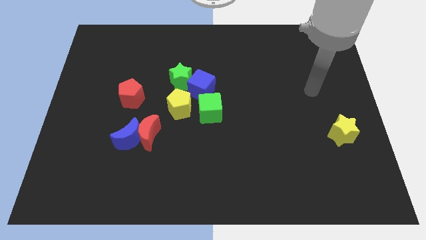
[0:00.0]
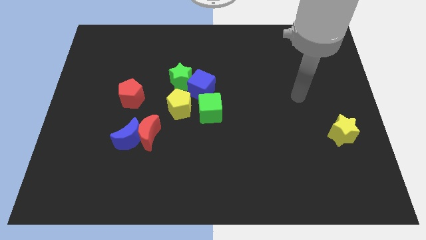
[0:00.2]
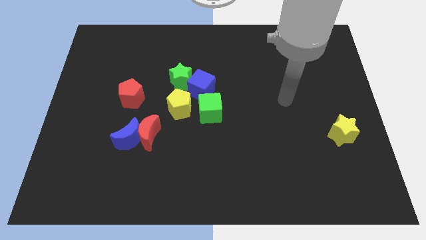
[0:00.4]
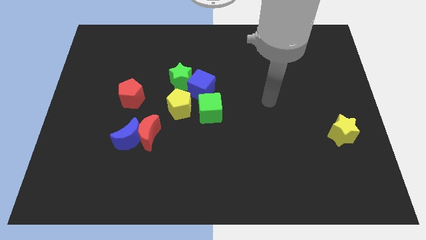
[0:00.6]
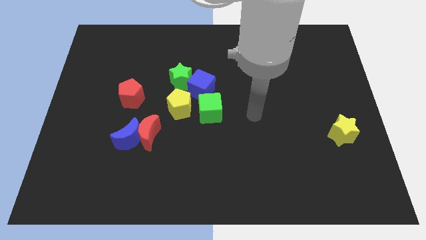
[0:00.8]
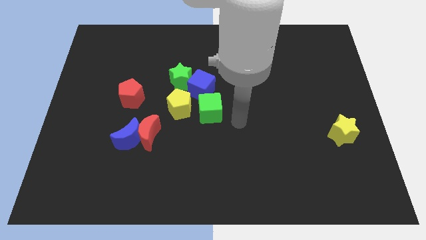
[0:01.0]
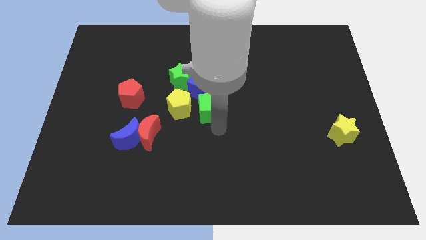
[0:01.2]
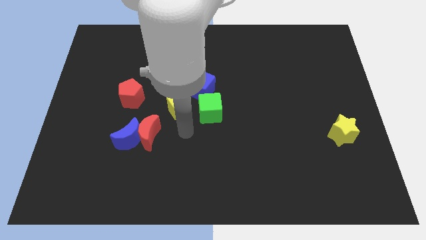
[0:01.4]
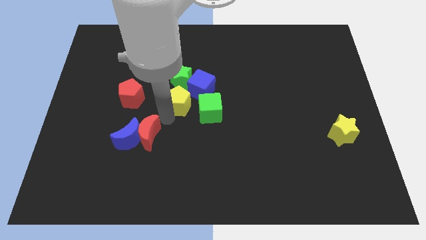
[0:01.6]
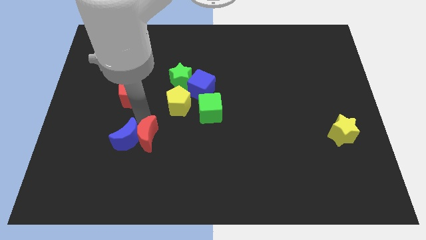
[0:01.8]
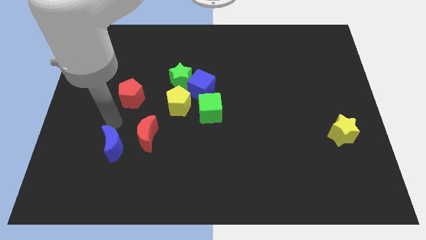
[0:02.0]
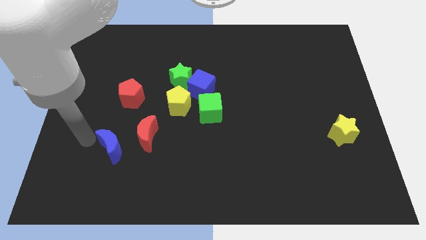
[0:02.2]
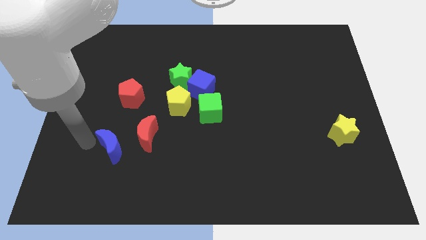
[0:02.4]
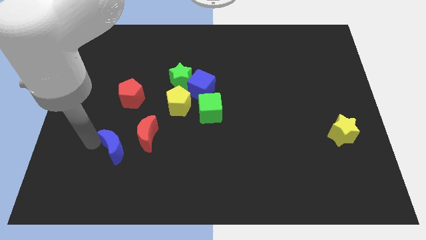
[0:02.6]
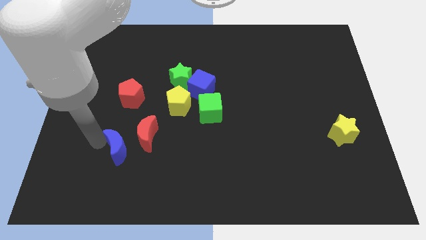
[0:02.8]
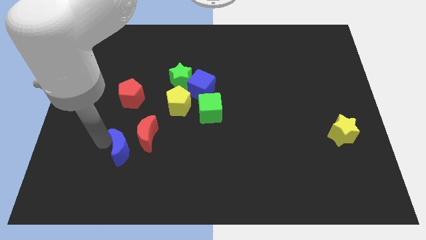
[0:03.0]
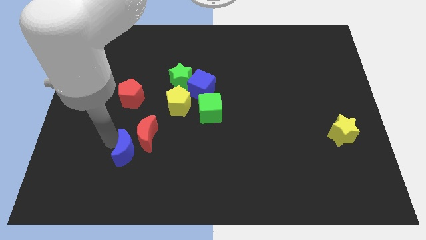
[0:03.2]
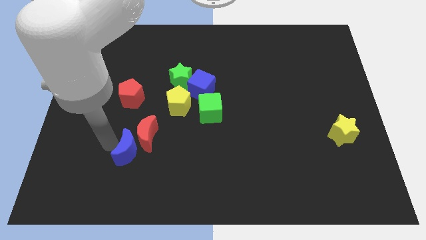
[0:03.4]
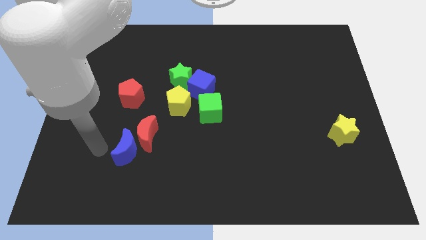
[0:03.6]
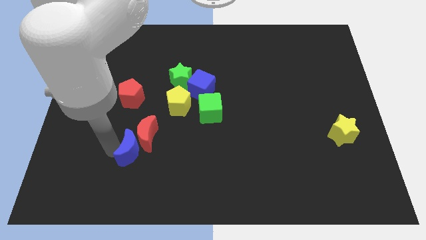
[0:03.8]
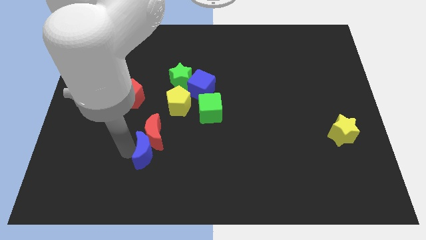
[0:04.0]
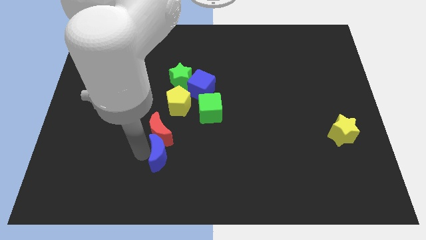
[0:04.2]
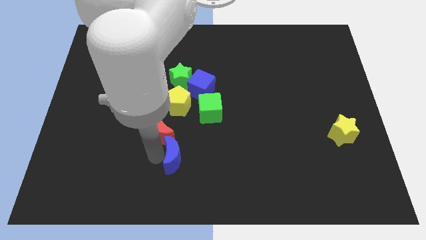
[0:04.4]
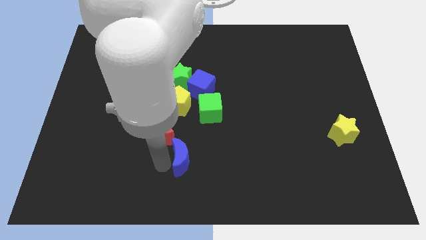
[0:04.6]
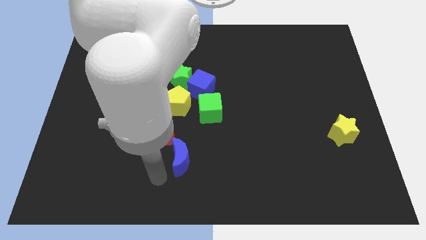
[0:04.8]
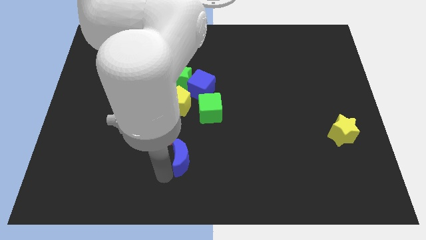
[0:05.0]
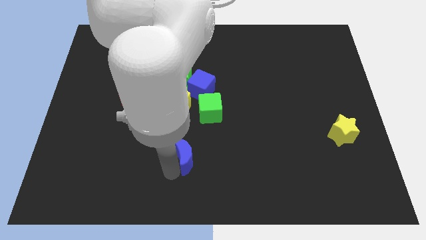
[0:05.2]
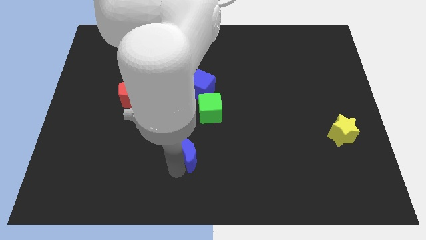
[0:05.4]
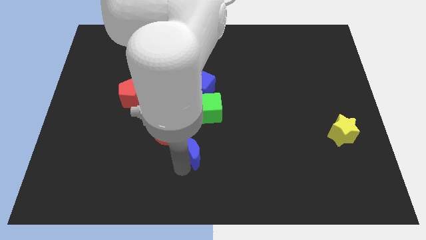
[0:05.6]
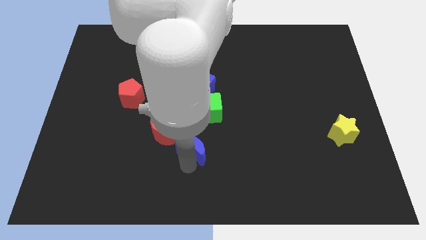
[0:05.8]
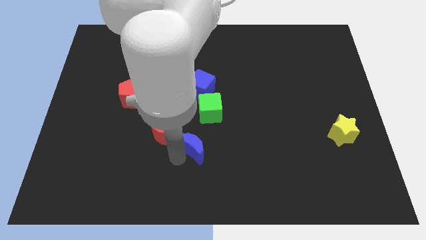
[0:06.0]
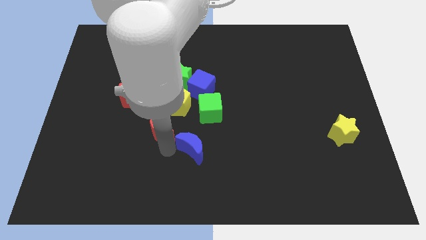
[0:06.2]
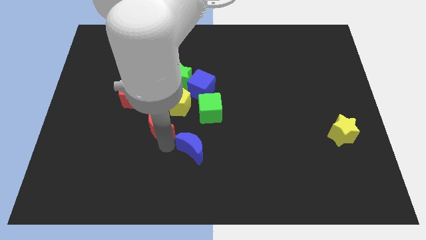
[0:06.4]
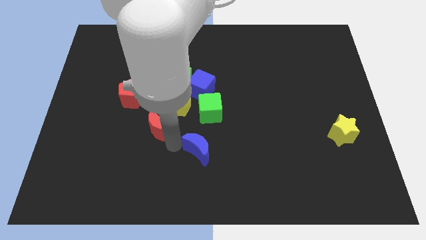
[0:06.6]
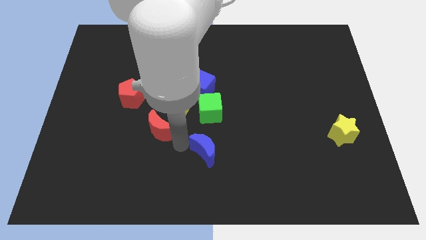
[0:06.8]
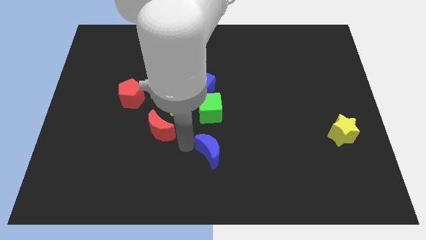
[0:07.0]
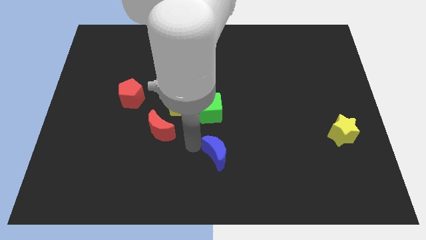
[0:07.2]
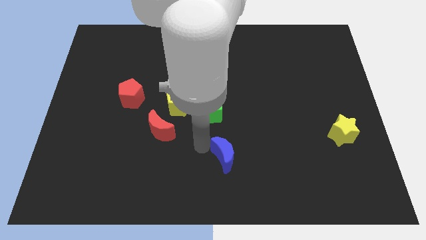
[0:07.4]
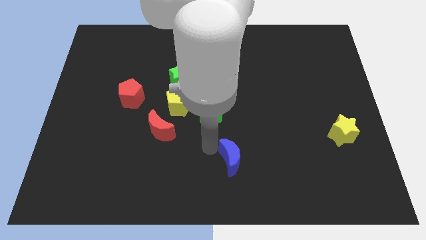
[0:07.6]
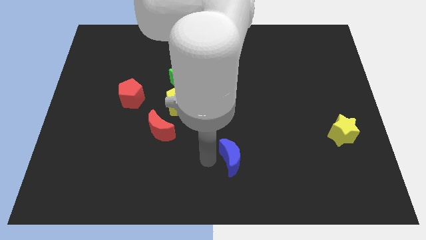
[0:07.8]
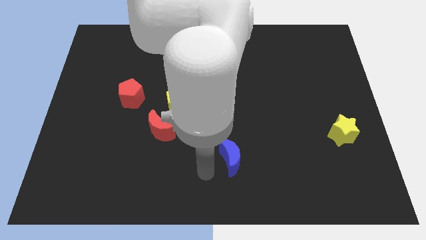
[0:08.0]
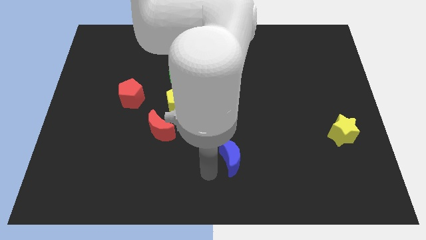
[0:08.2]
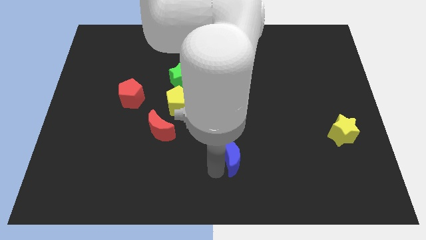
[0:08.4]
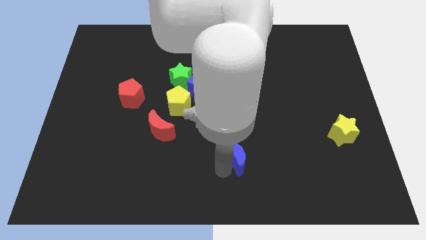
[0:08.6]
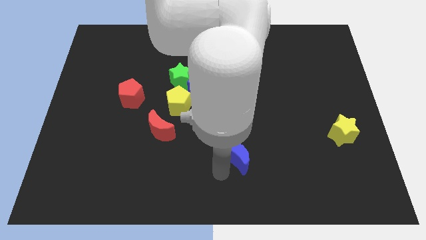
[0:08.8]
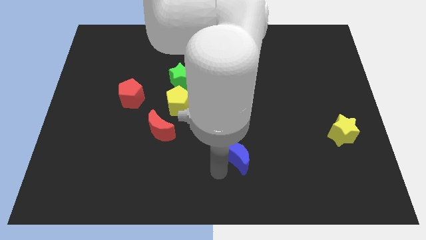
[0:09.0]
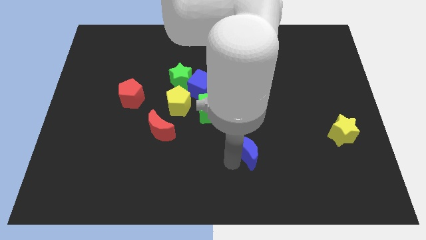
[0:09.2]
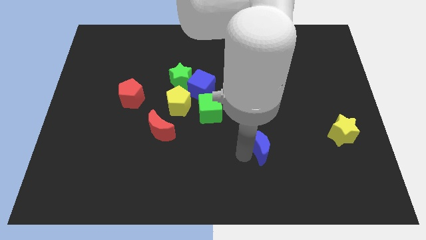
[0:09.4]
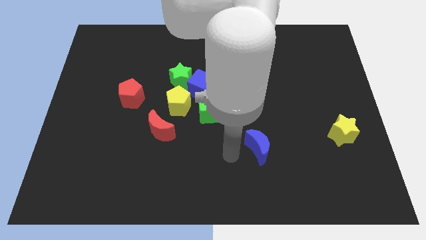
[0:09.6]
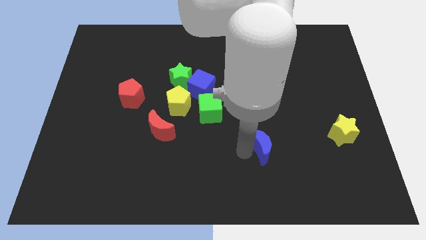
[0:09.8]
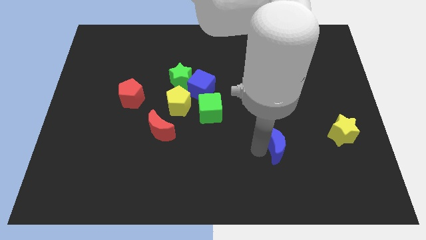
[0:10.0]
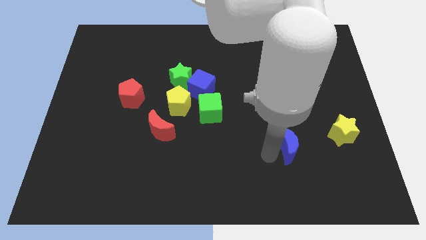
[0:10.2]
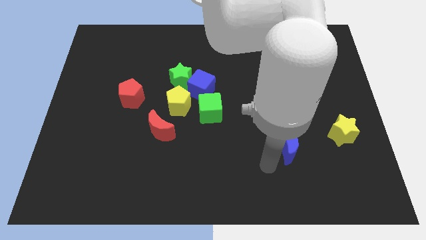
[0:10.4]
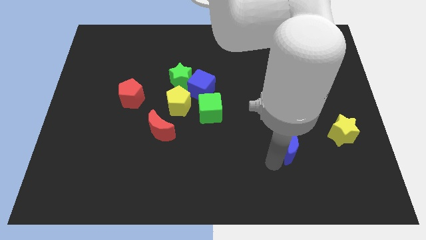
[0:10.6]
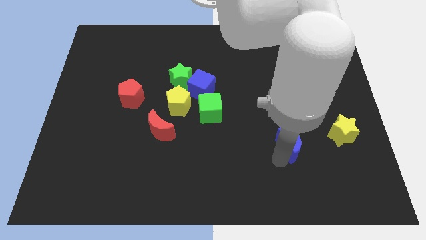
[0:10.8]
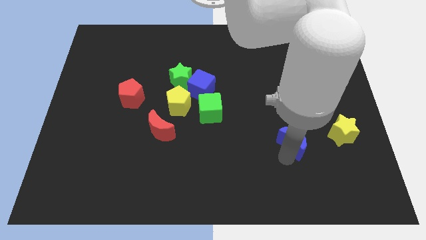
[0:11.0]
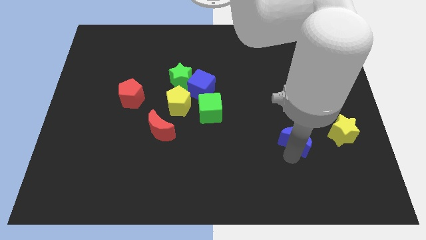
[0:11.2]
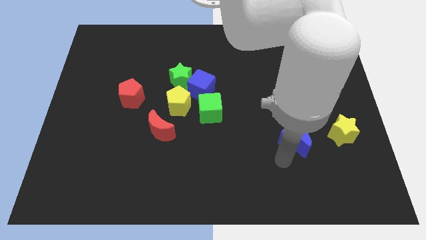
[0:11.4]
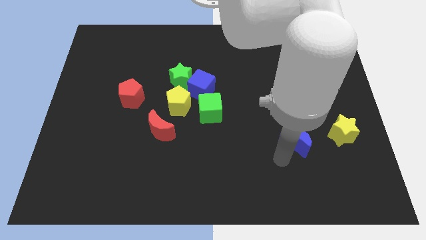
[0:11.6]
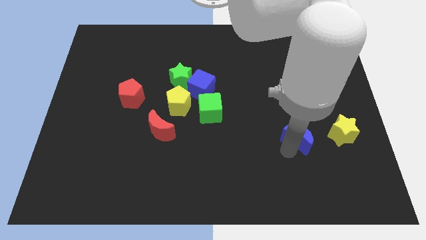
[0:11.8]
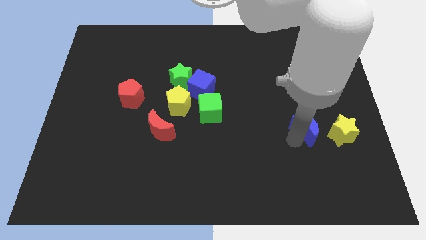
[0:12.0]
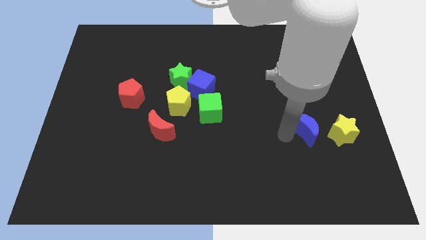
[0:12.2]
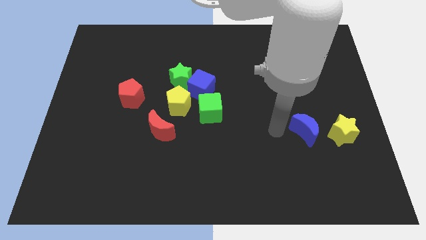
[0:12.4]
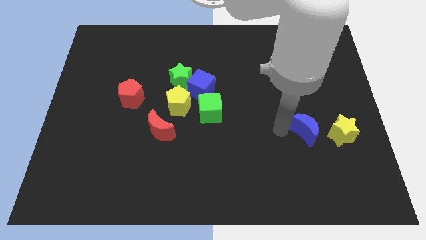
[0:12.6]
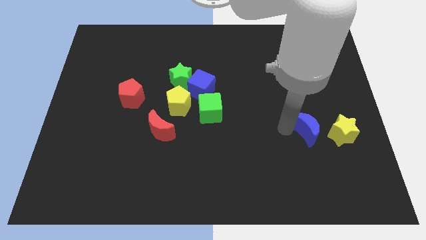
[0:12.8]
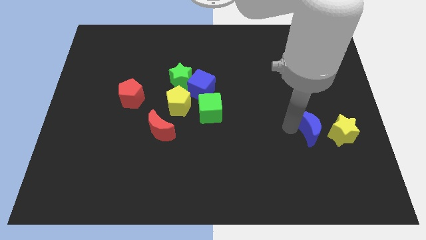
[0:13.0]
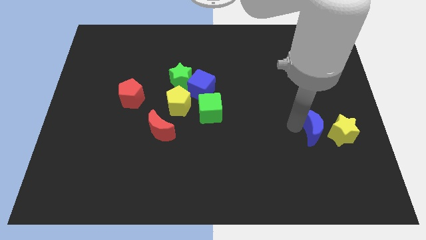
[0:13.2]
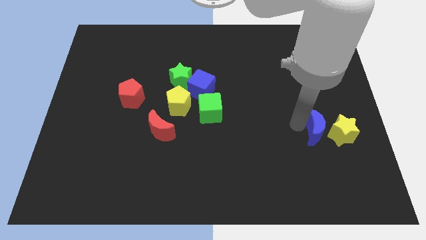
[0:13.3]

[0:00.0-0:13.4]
slide the blue moon close to the yellow star
